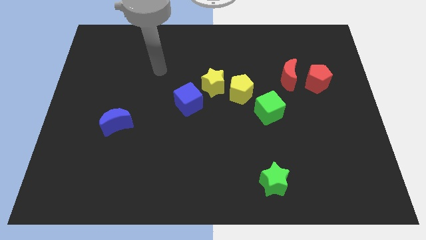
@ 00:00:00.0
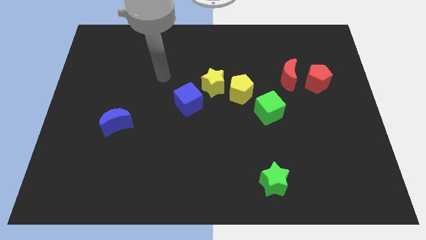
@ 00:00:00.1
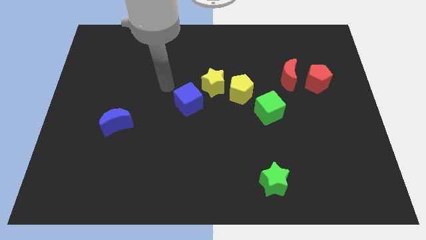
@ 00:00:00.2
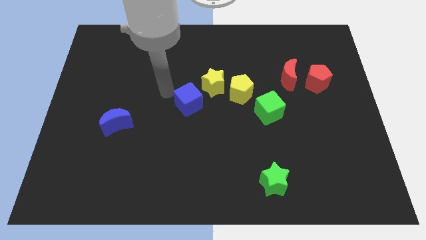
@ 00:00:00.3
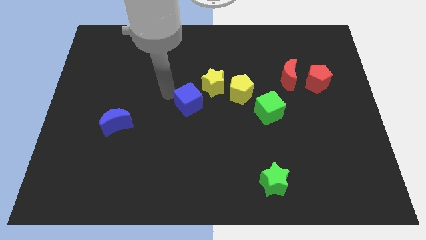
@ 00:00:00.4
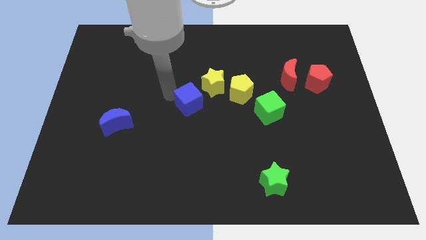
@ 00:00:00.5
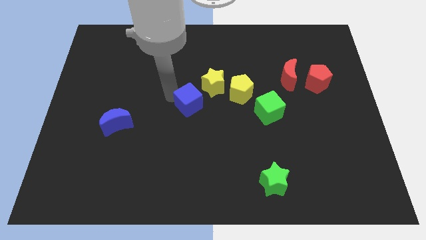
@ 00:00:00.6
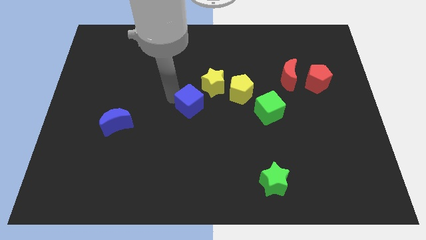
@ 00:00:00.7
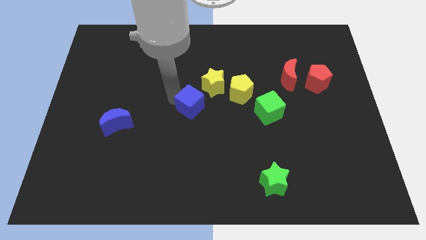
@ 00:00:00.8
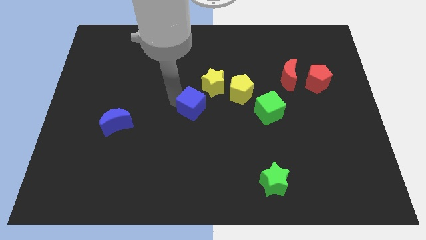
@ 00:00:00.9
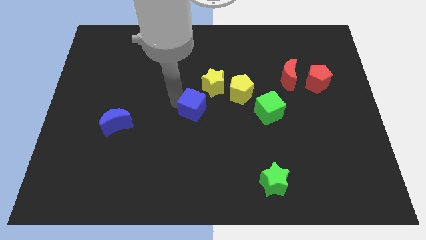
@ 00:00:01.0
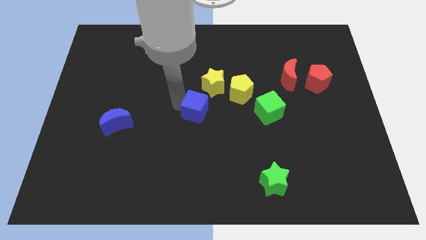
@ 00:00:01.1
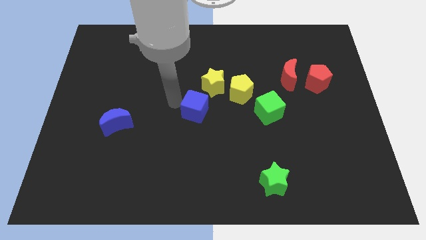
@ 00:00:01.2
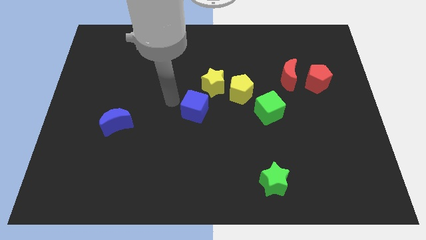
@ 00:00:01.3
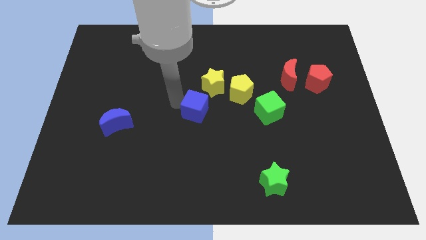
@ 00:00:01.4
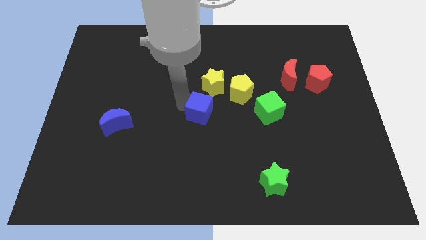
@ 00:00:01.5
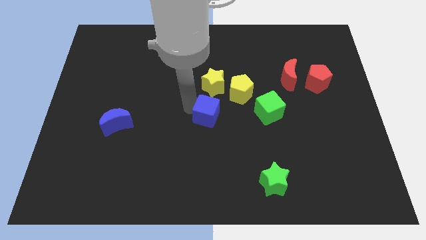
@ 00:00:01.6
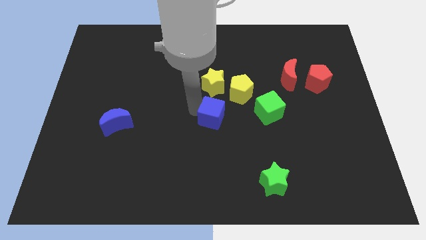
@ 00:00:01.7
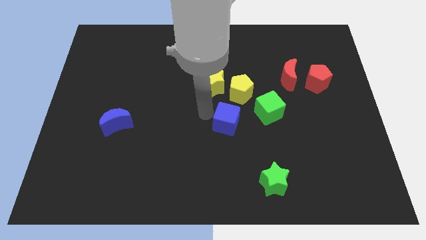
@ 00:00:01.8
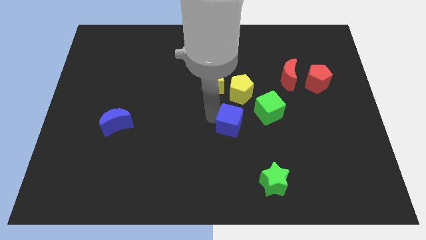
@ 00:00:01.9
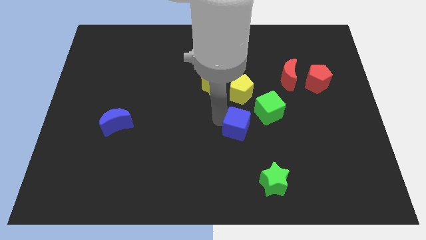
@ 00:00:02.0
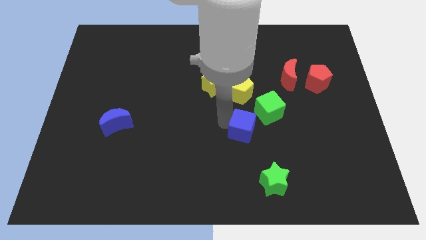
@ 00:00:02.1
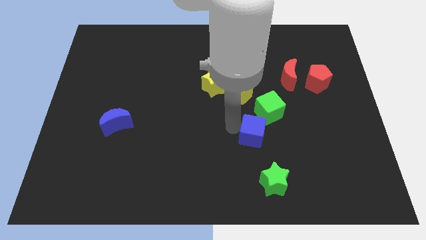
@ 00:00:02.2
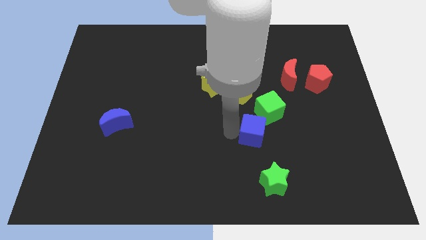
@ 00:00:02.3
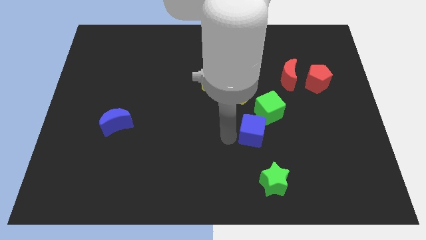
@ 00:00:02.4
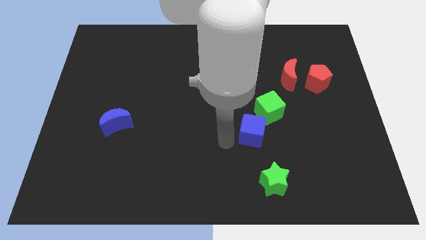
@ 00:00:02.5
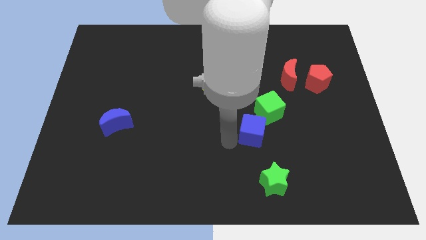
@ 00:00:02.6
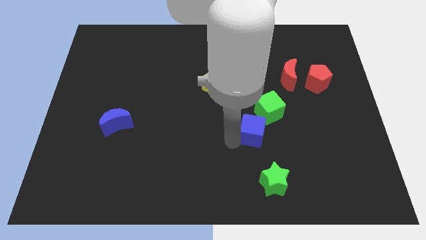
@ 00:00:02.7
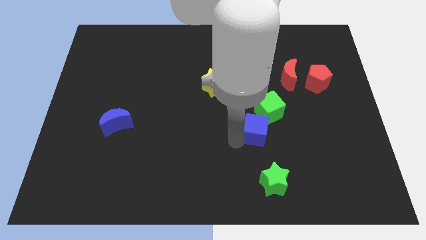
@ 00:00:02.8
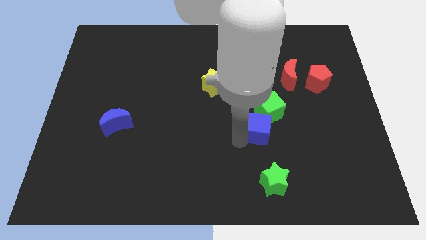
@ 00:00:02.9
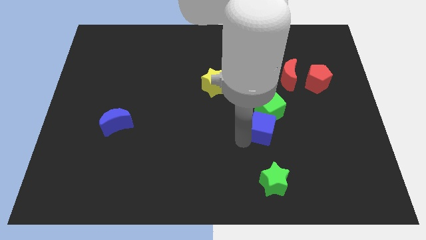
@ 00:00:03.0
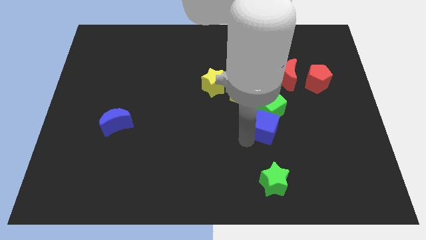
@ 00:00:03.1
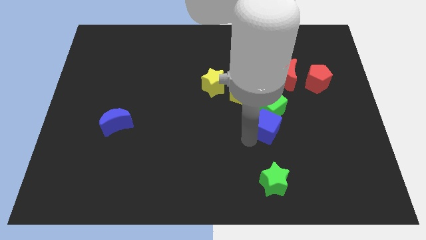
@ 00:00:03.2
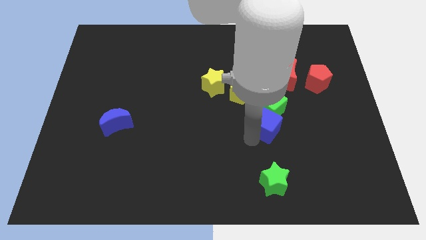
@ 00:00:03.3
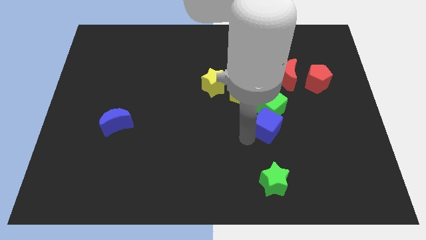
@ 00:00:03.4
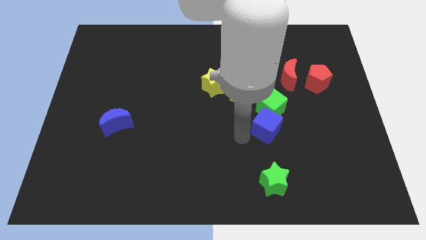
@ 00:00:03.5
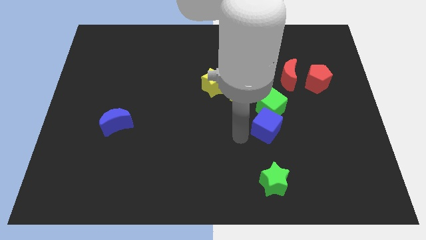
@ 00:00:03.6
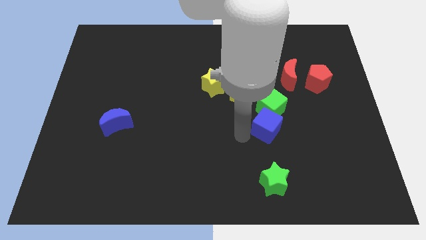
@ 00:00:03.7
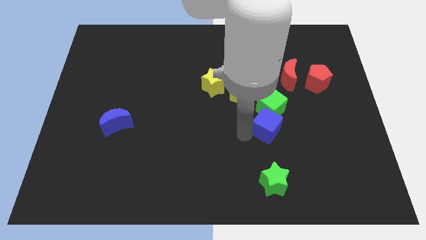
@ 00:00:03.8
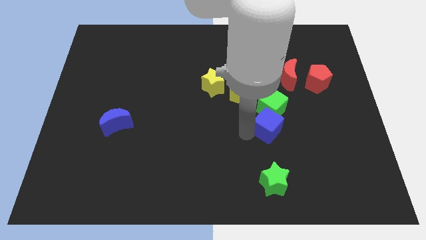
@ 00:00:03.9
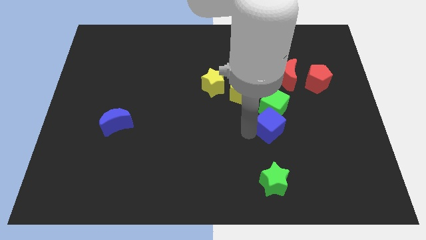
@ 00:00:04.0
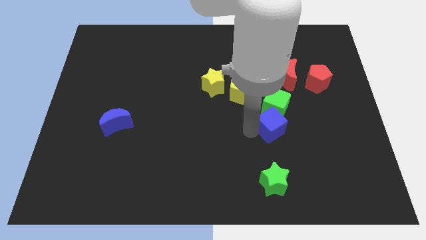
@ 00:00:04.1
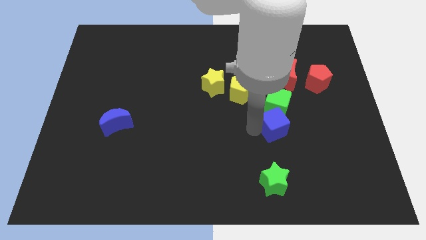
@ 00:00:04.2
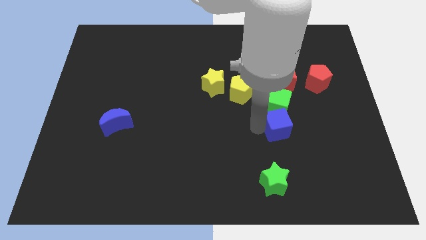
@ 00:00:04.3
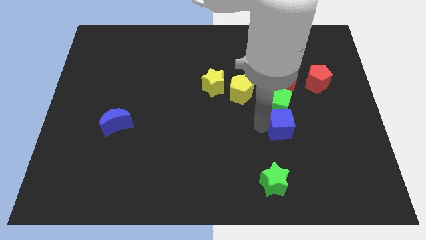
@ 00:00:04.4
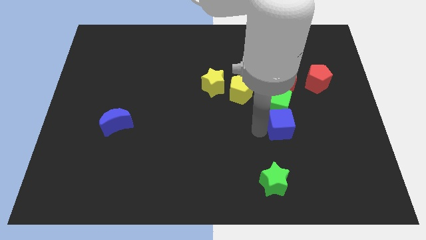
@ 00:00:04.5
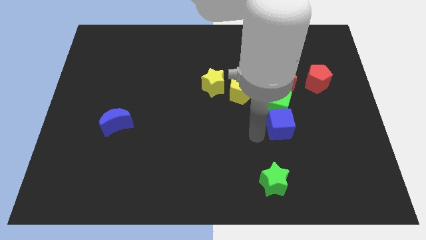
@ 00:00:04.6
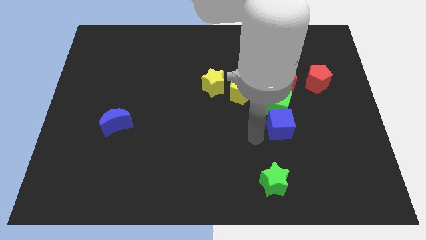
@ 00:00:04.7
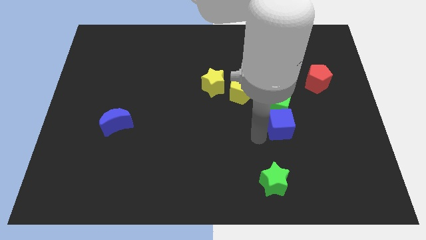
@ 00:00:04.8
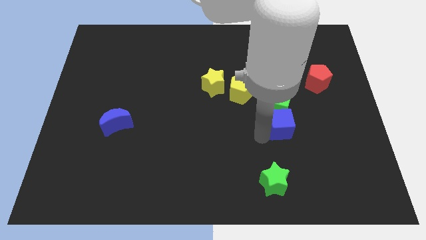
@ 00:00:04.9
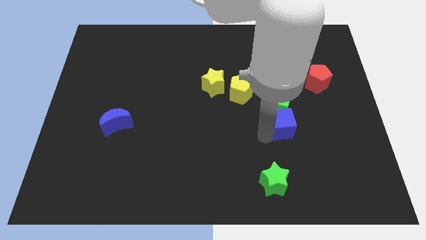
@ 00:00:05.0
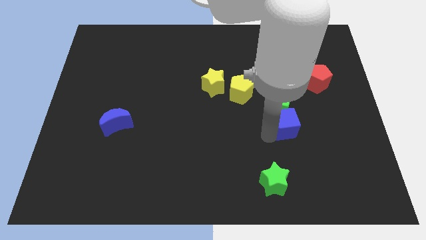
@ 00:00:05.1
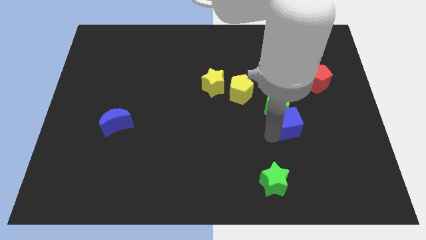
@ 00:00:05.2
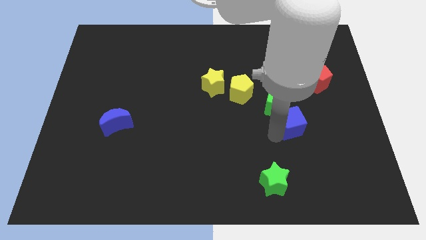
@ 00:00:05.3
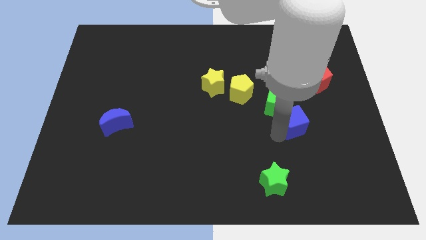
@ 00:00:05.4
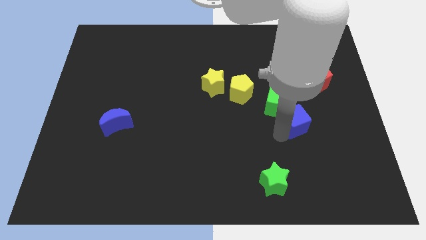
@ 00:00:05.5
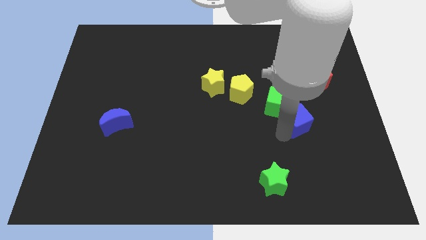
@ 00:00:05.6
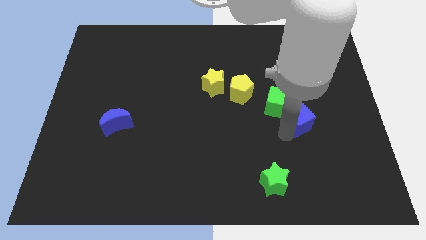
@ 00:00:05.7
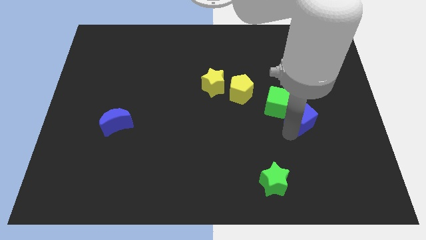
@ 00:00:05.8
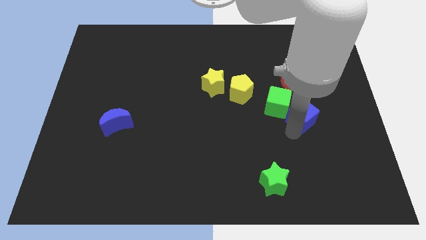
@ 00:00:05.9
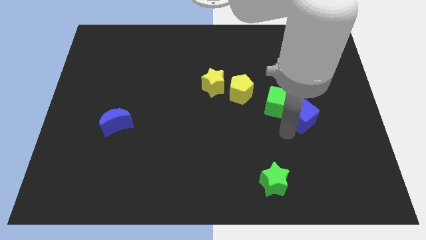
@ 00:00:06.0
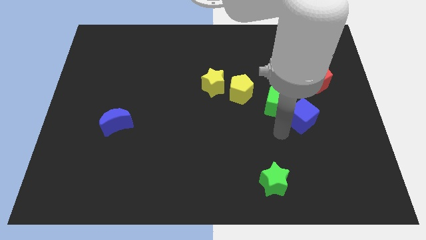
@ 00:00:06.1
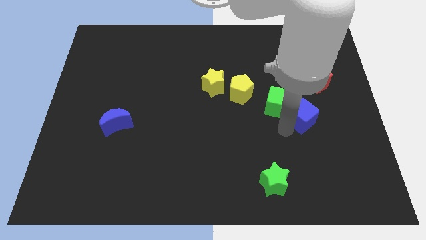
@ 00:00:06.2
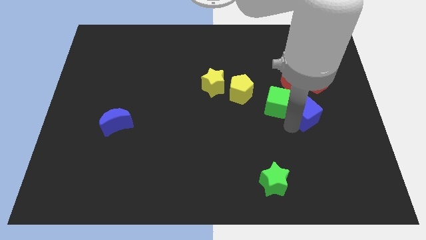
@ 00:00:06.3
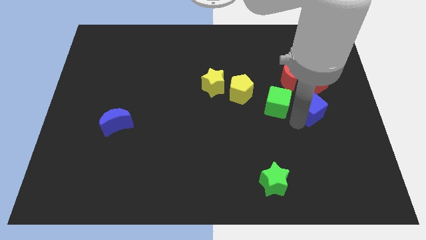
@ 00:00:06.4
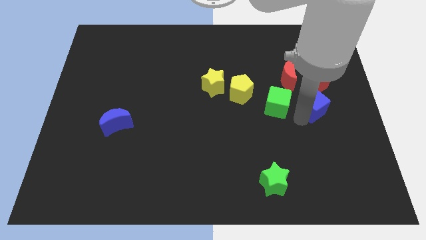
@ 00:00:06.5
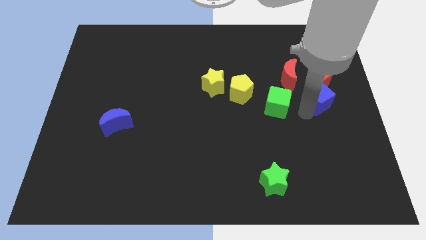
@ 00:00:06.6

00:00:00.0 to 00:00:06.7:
put the blue cube to the center right
